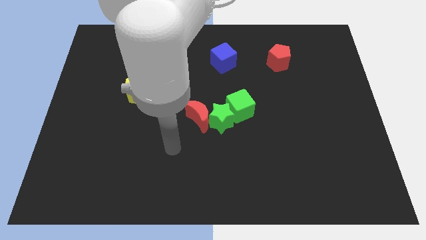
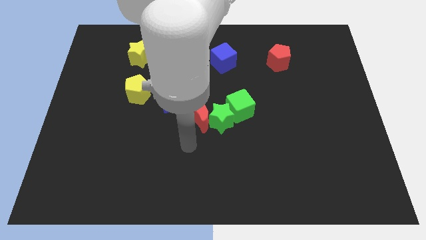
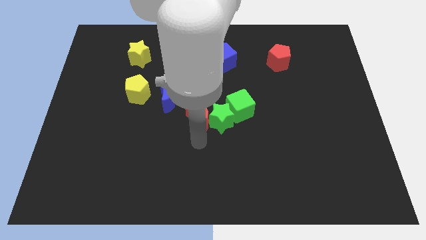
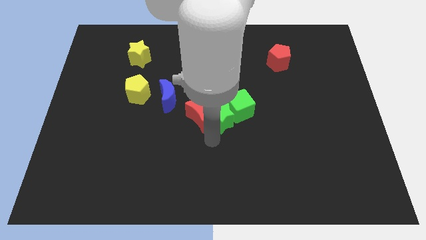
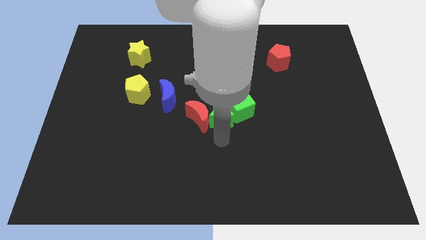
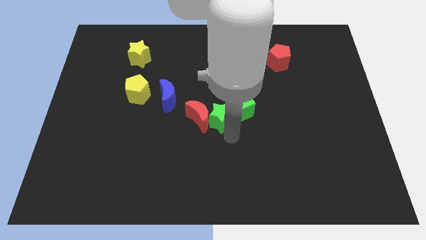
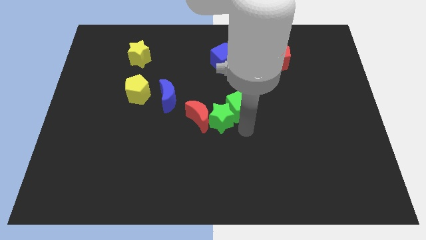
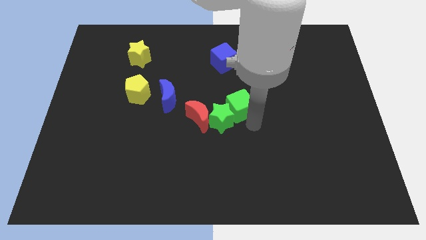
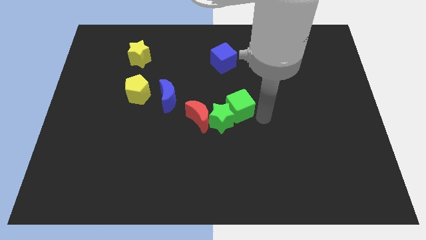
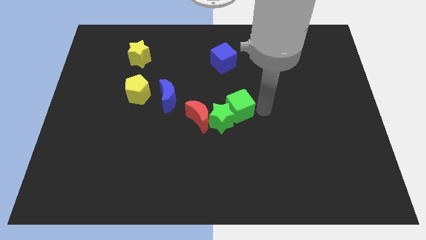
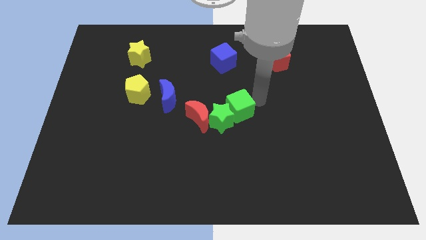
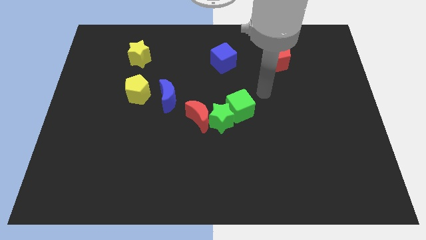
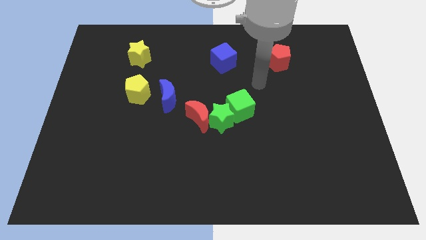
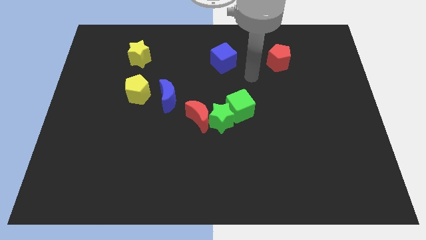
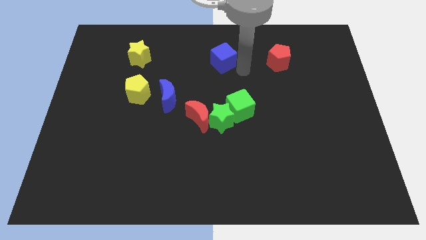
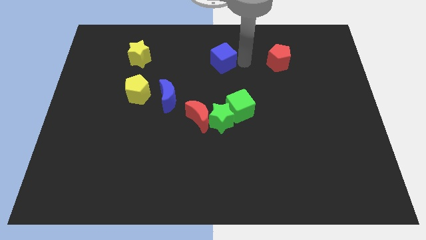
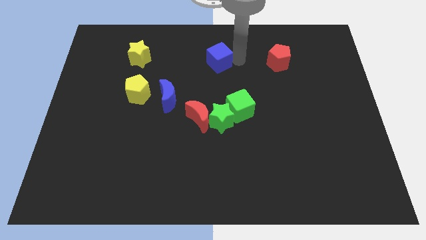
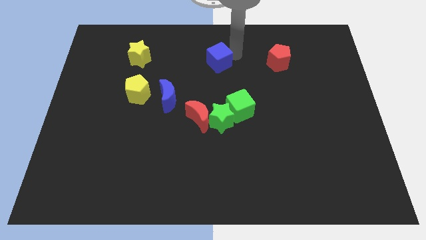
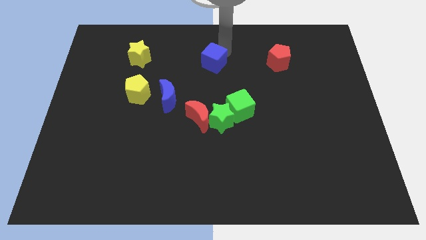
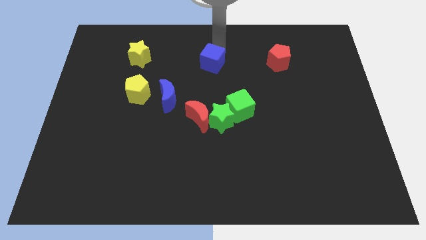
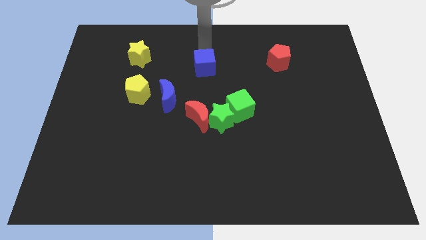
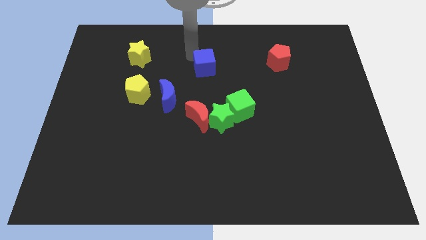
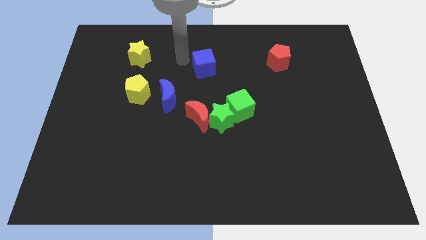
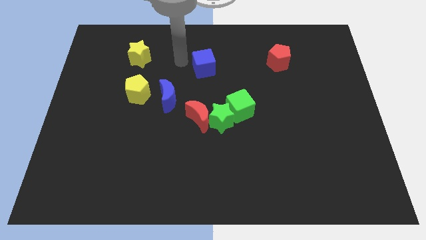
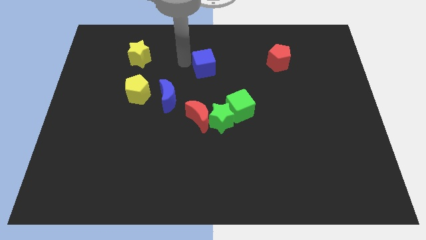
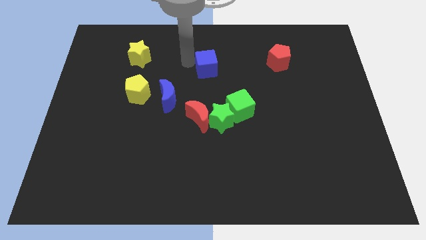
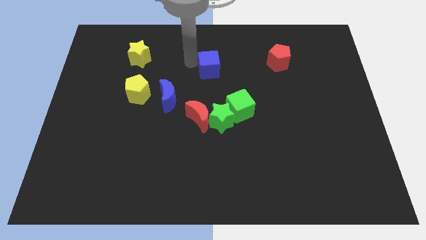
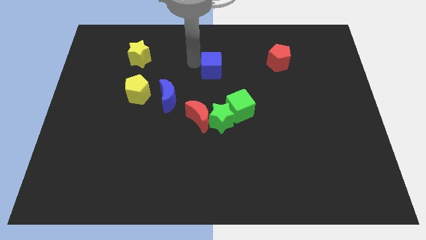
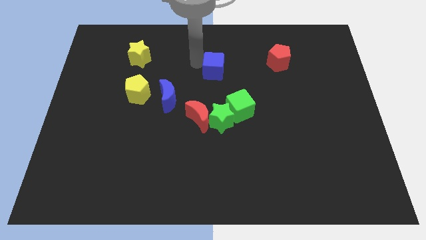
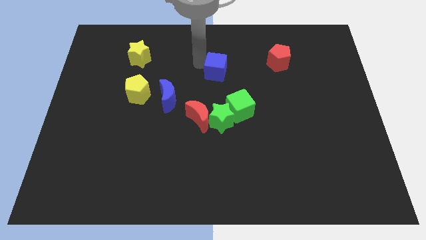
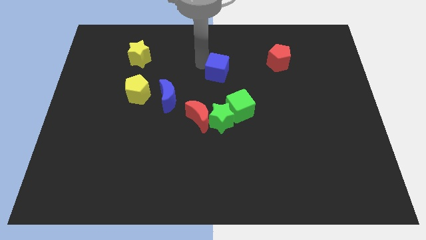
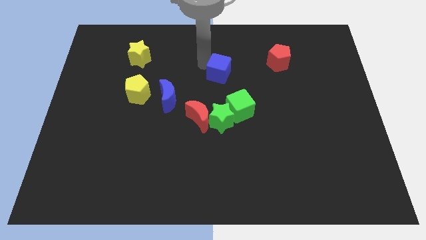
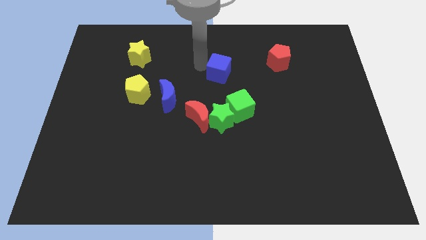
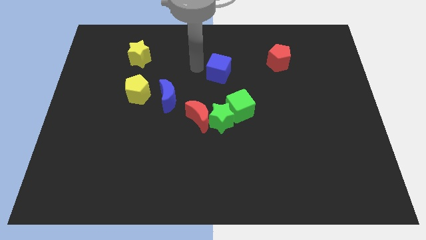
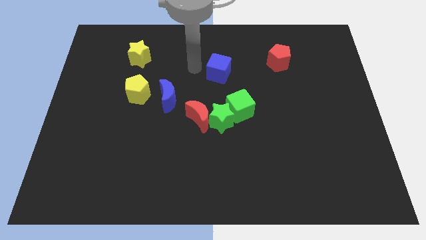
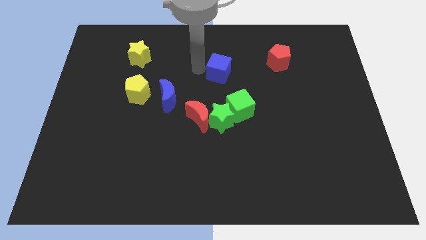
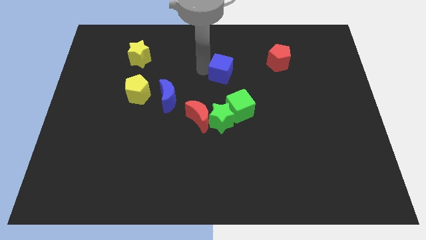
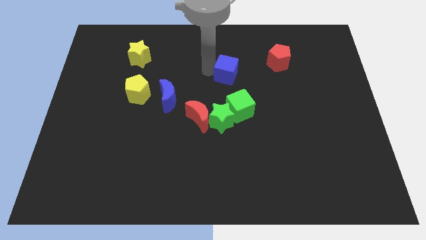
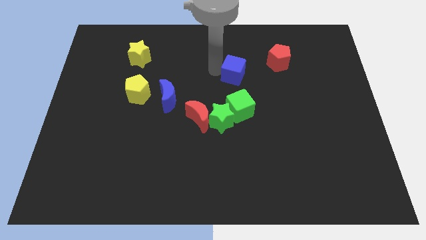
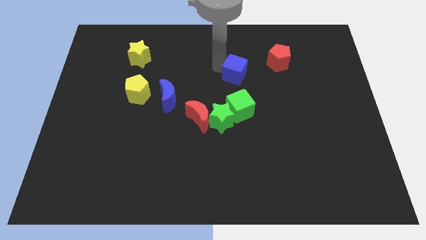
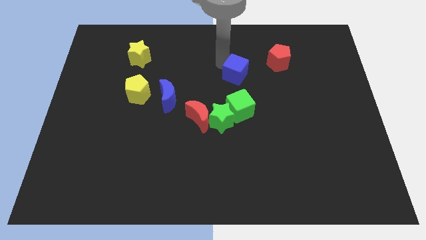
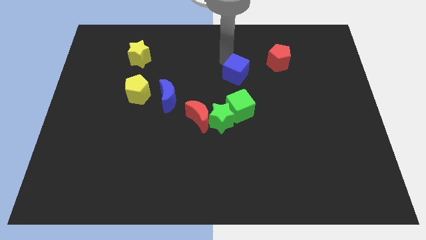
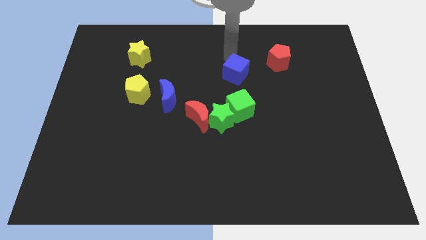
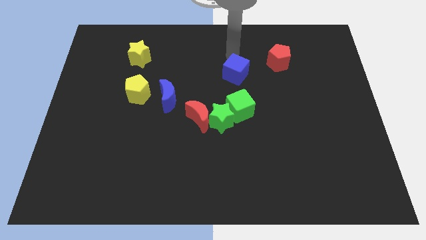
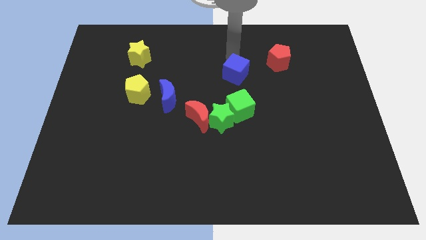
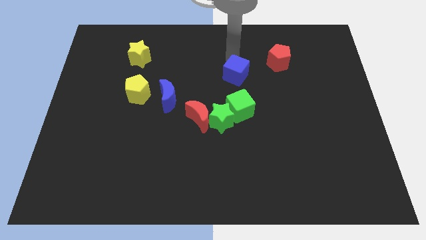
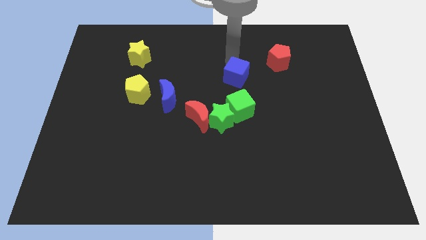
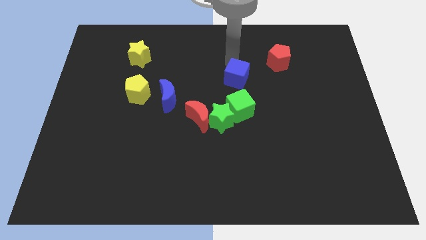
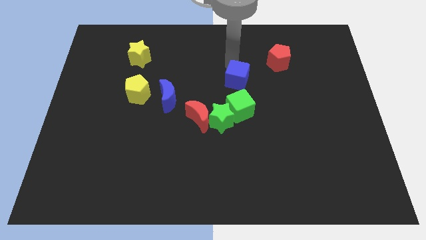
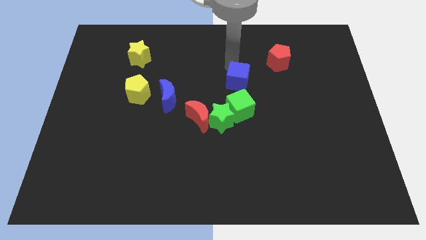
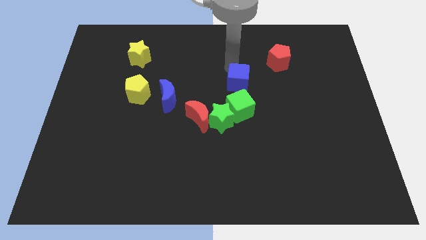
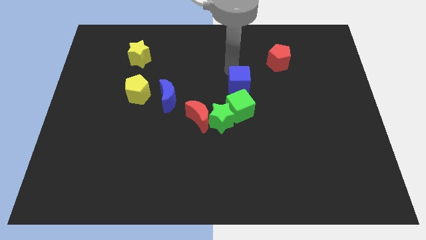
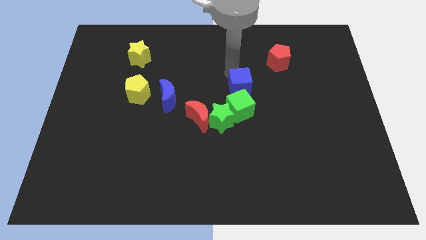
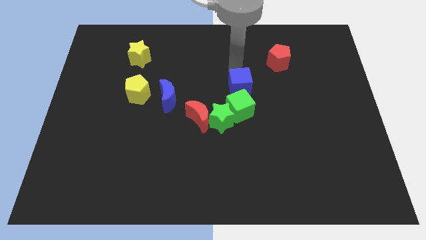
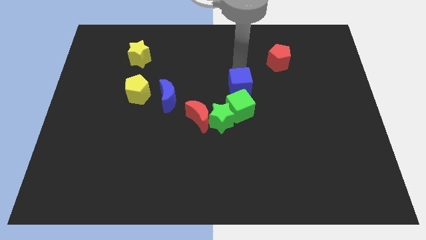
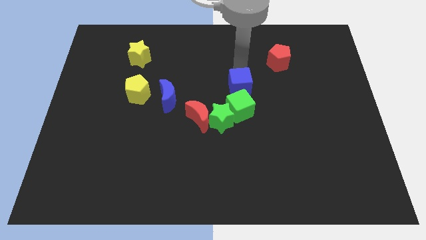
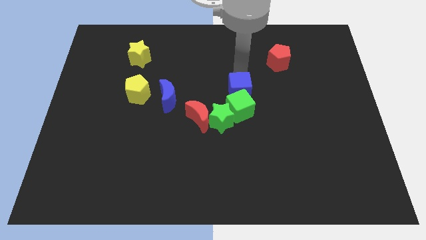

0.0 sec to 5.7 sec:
move the blue cube close to the green cube

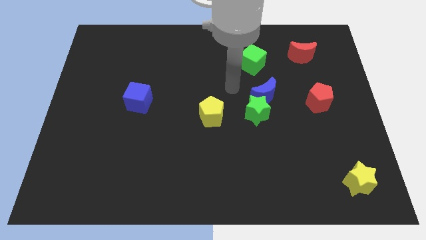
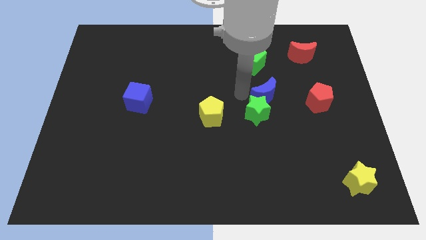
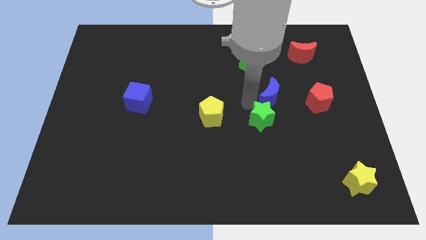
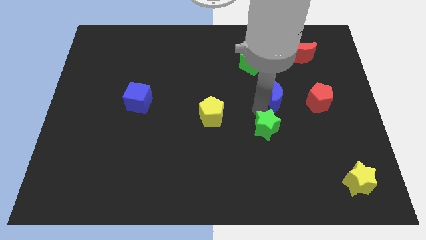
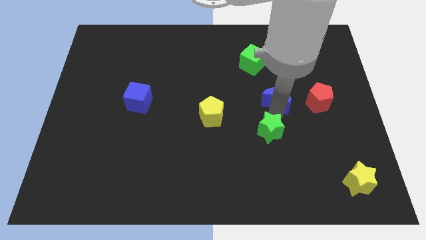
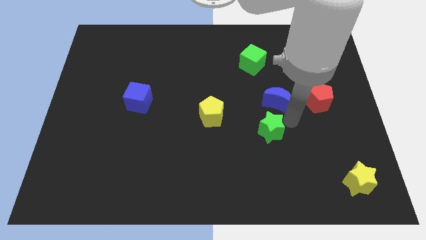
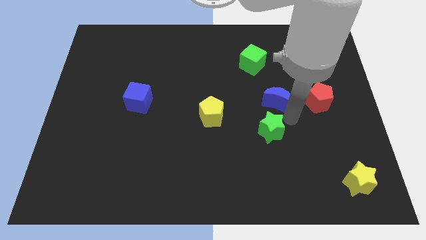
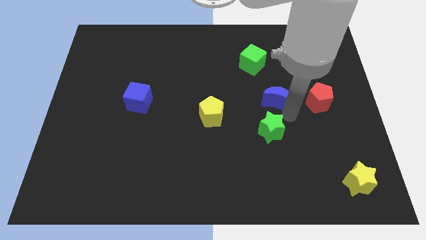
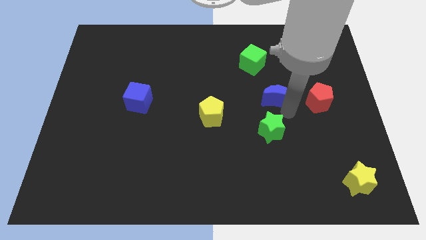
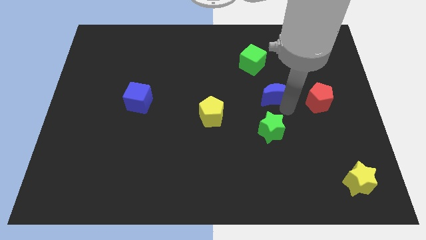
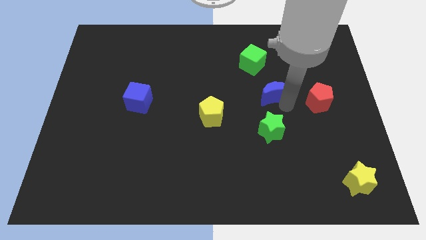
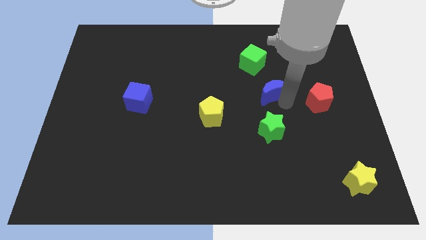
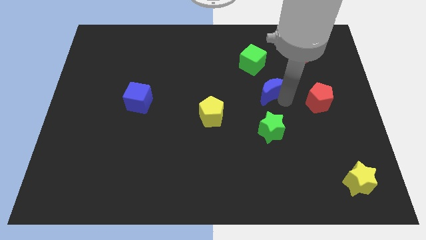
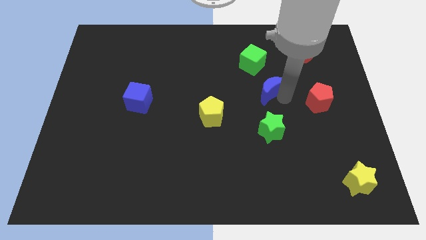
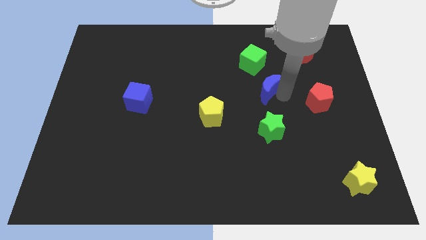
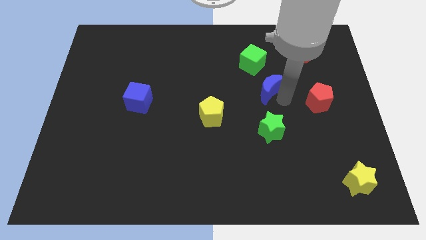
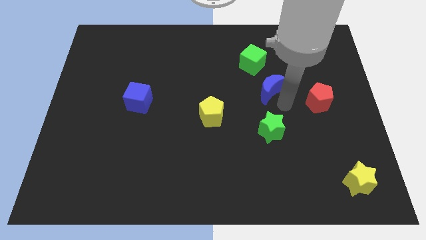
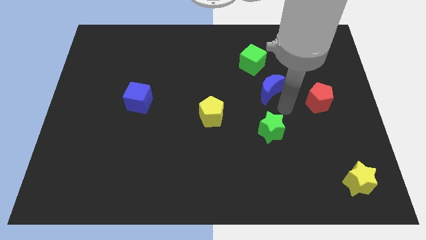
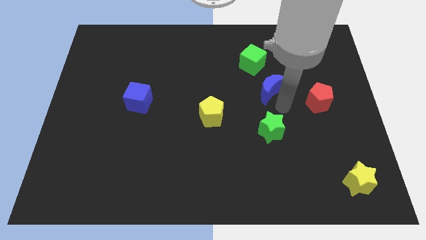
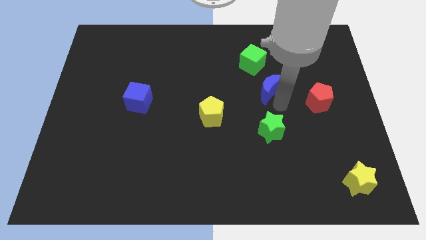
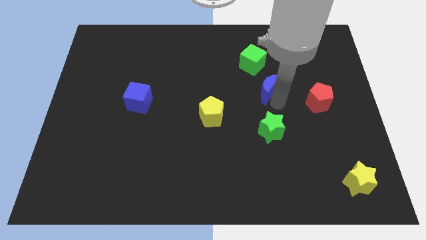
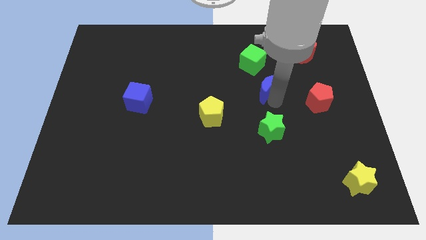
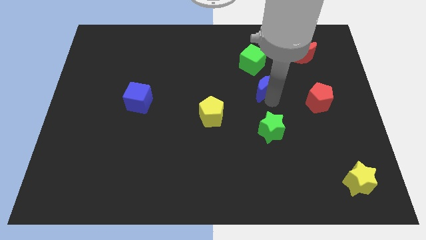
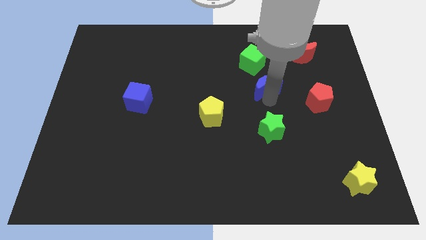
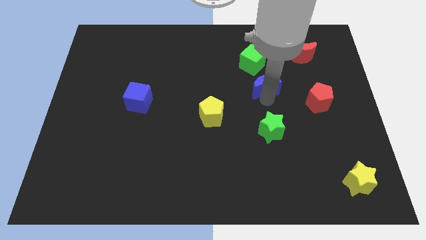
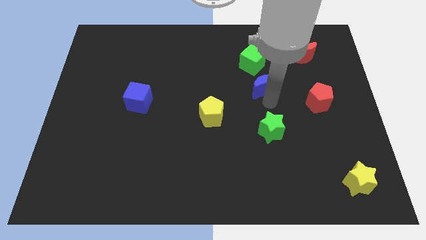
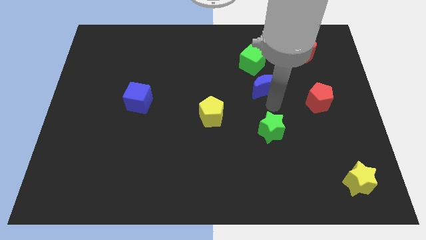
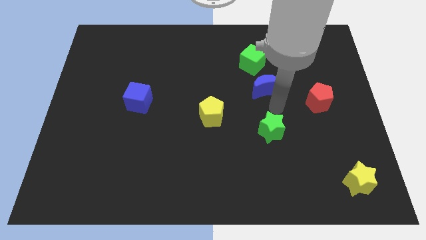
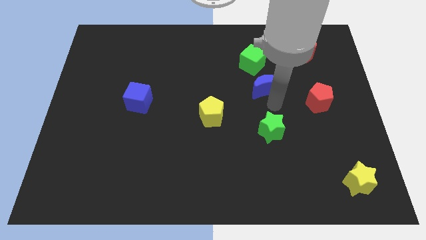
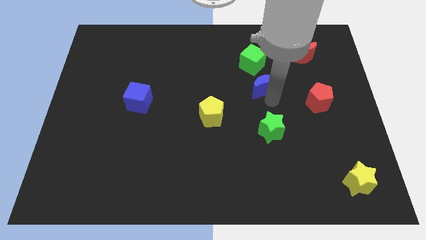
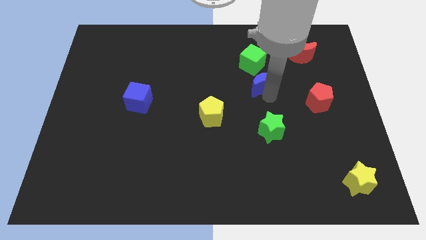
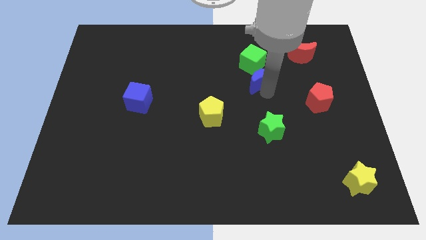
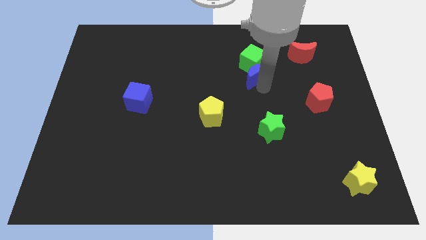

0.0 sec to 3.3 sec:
slide the blue moon towards the green cube
